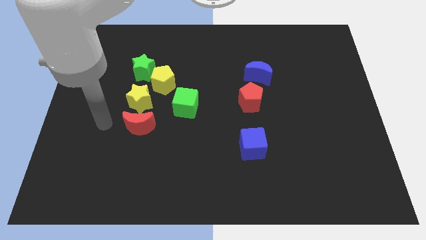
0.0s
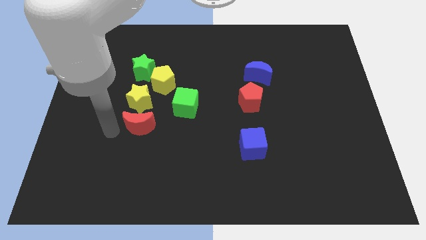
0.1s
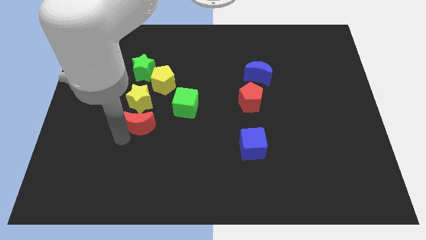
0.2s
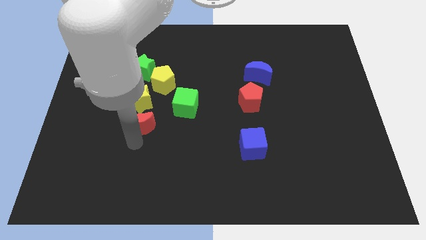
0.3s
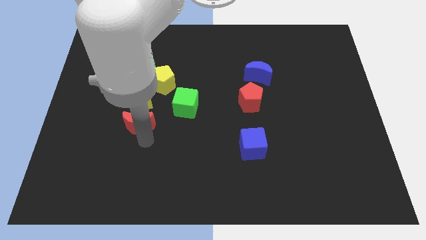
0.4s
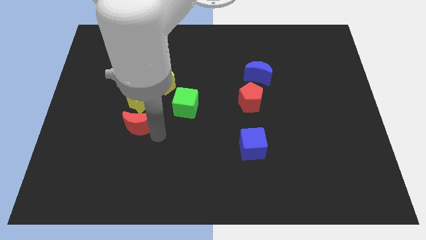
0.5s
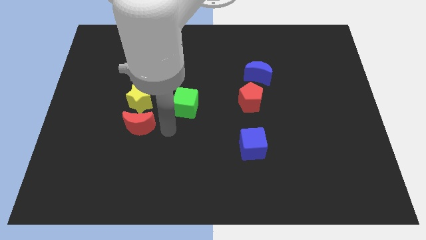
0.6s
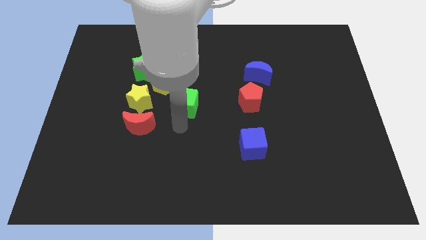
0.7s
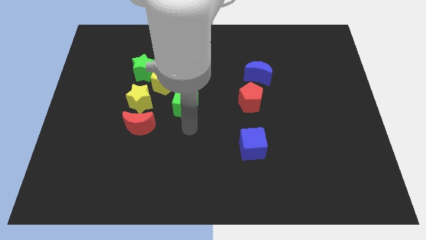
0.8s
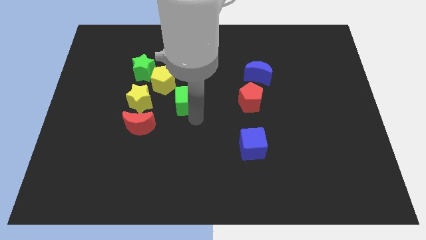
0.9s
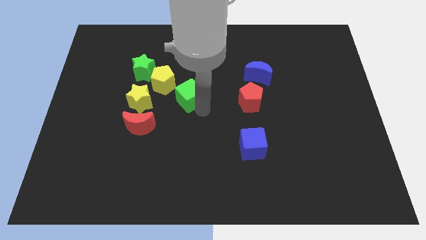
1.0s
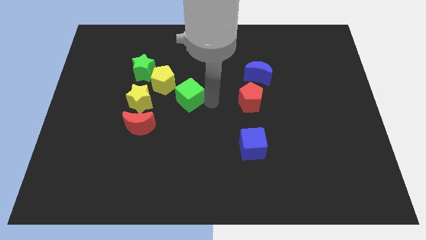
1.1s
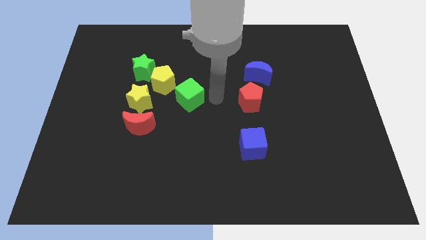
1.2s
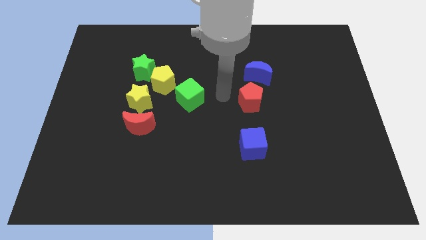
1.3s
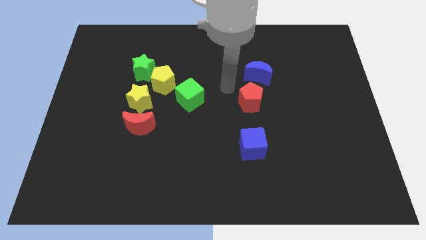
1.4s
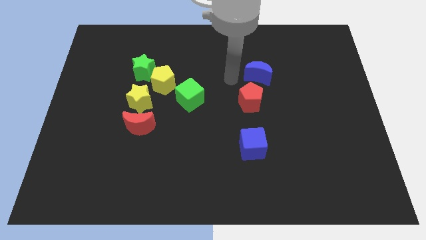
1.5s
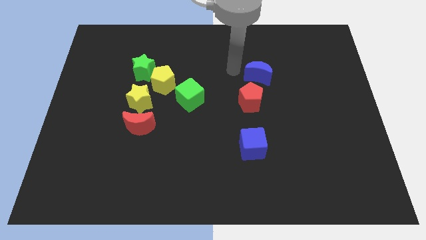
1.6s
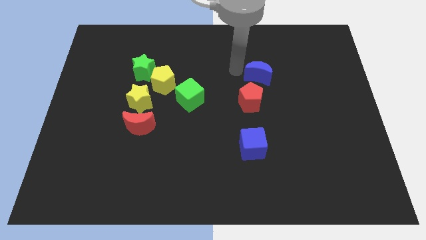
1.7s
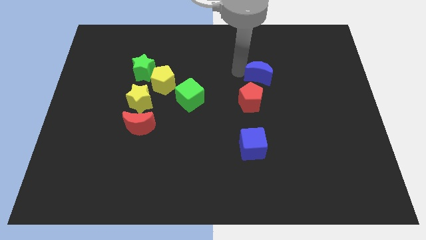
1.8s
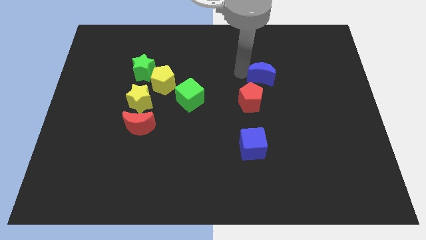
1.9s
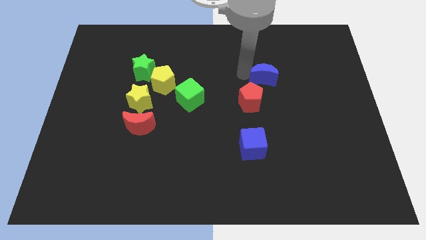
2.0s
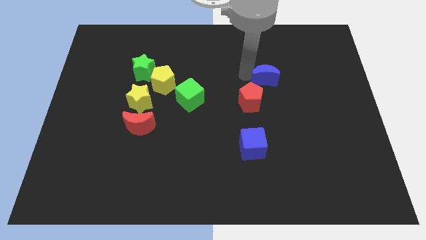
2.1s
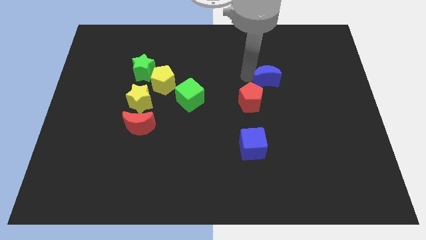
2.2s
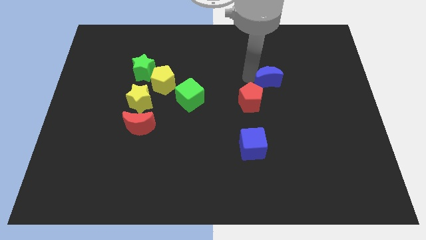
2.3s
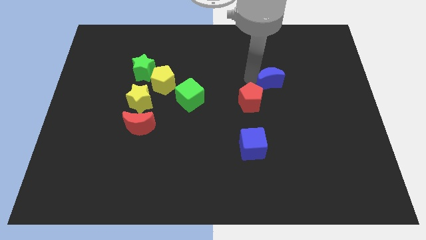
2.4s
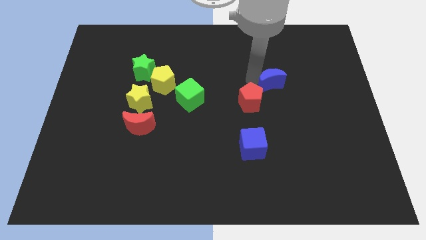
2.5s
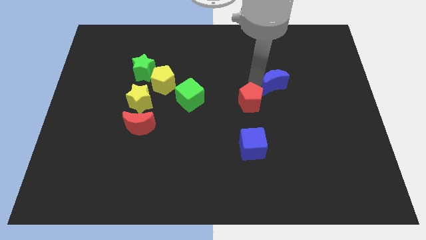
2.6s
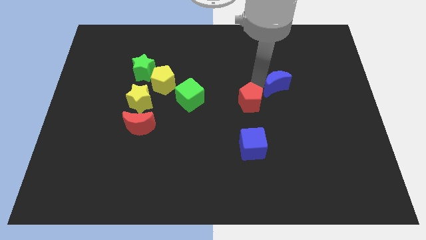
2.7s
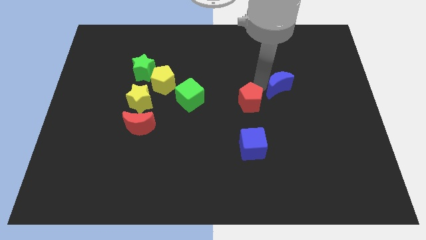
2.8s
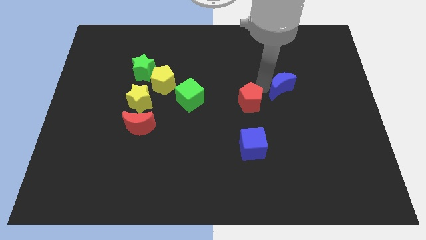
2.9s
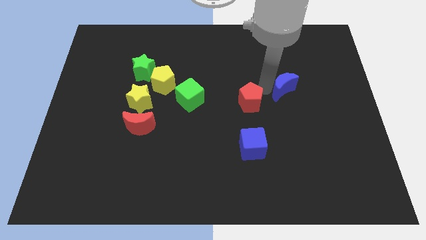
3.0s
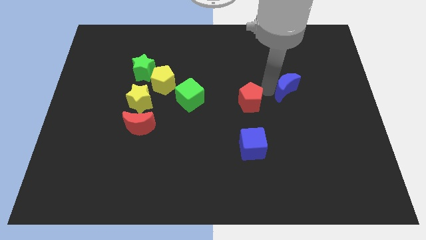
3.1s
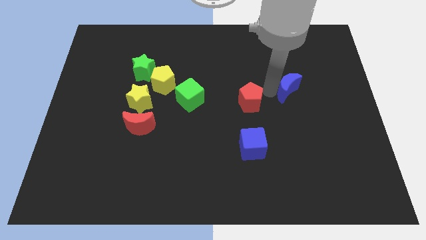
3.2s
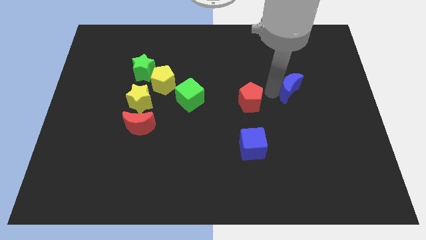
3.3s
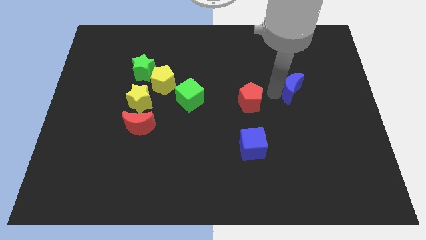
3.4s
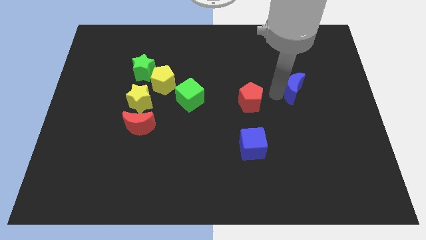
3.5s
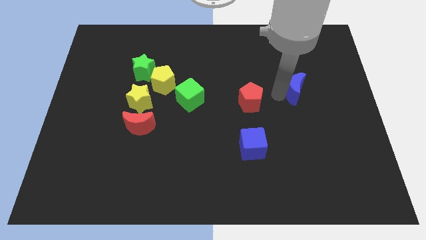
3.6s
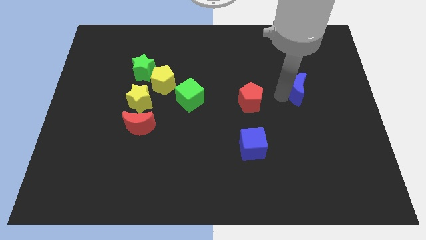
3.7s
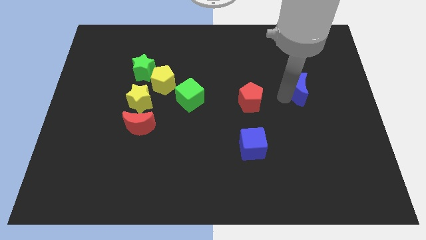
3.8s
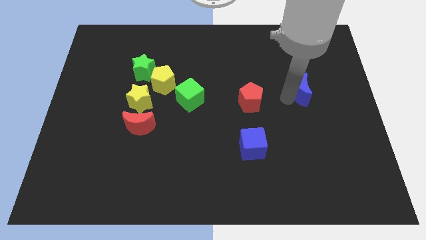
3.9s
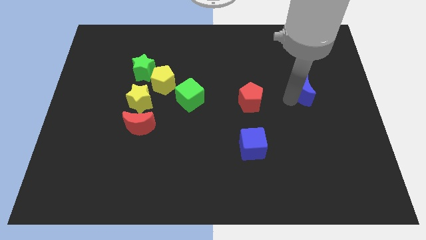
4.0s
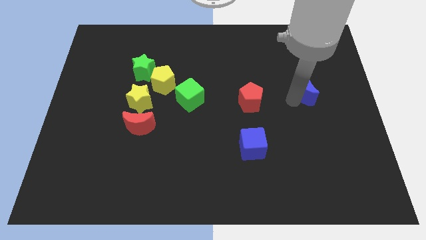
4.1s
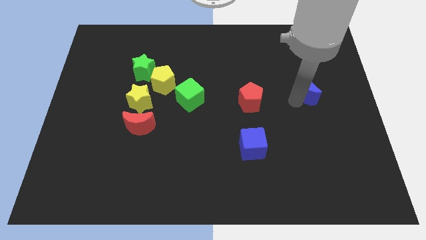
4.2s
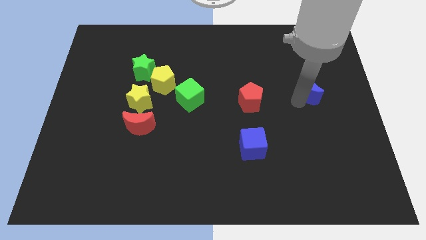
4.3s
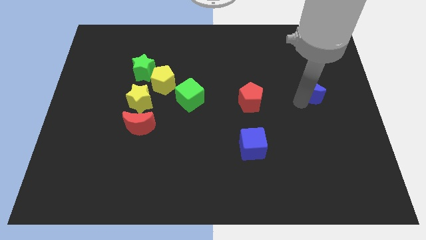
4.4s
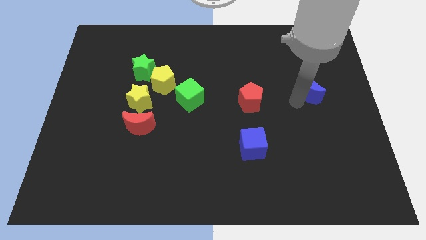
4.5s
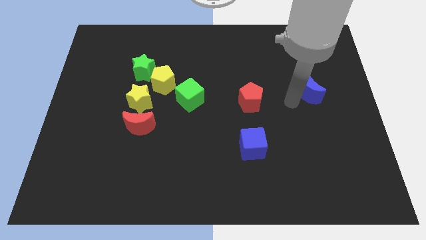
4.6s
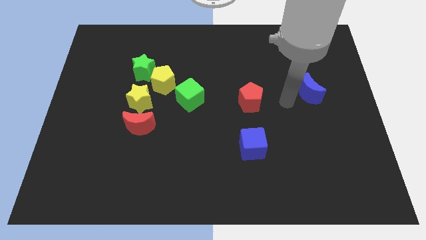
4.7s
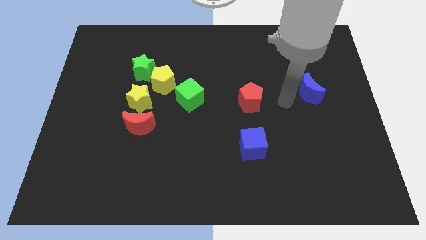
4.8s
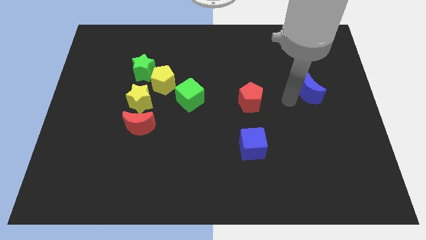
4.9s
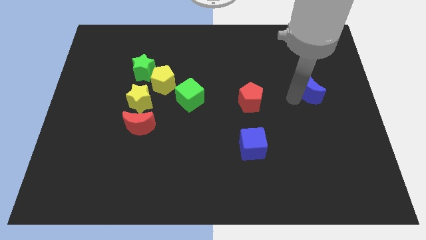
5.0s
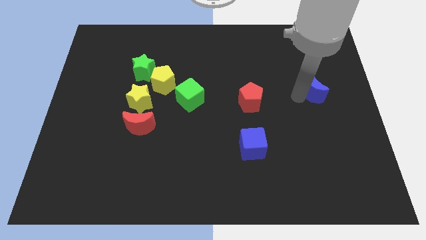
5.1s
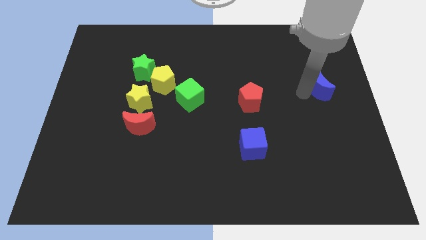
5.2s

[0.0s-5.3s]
push the blue moon to the right side of the board

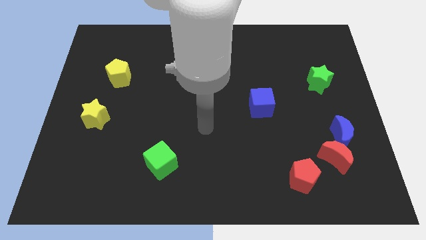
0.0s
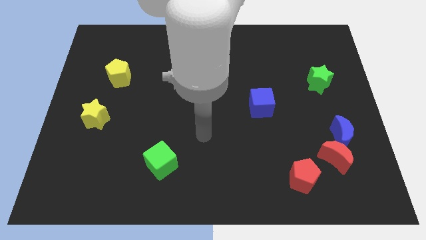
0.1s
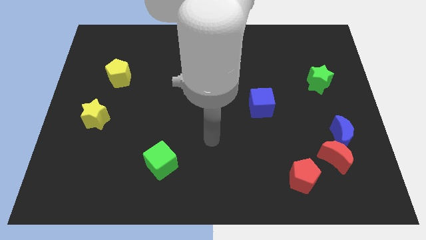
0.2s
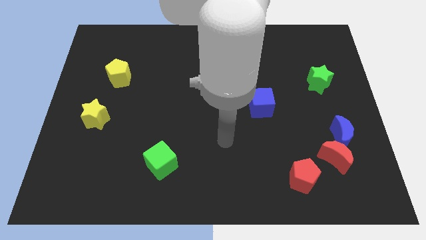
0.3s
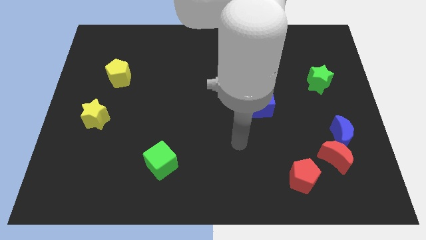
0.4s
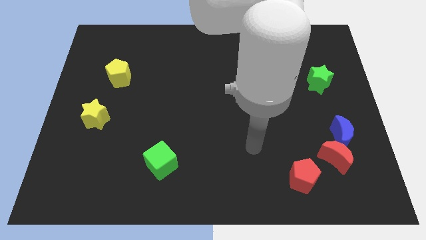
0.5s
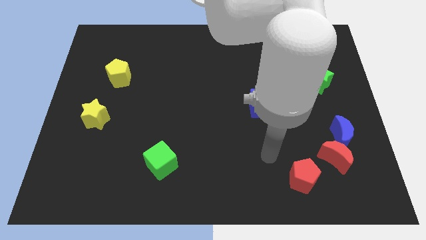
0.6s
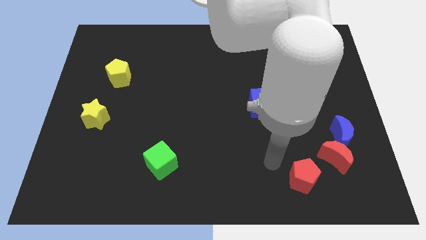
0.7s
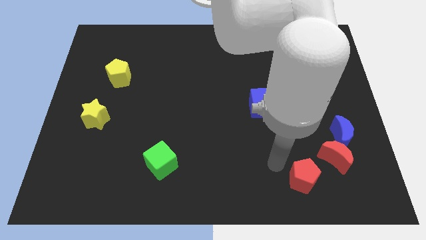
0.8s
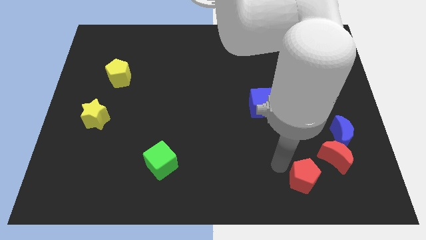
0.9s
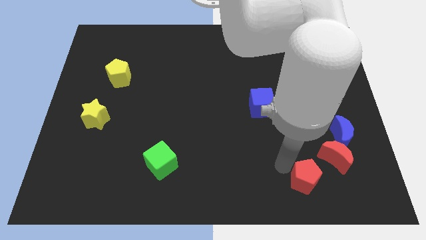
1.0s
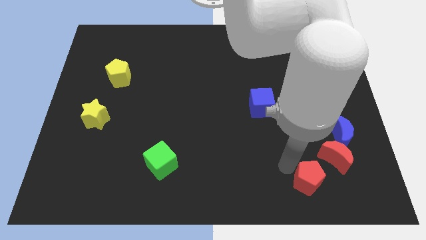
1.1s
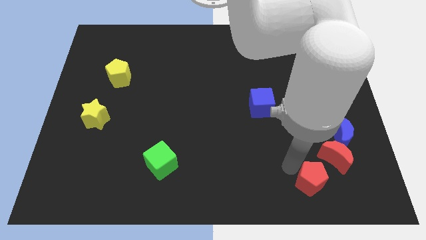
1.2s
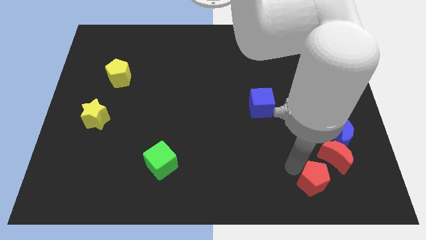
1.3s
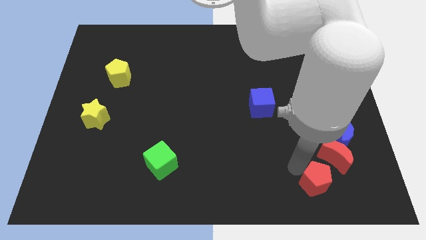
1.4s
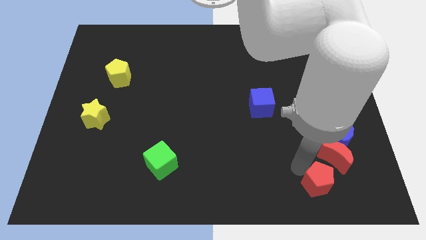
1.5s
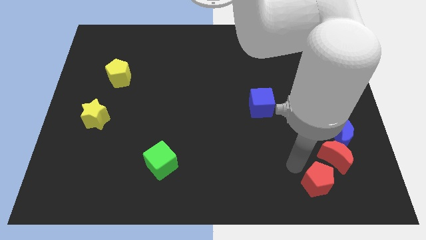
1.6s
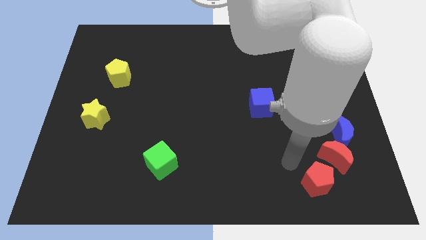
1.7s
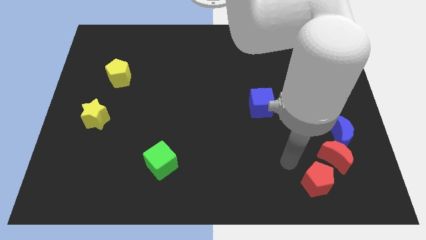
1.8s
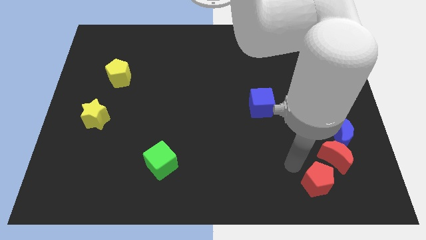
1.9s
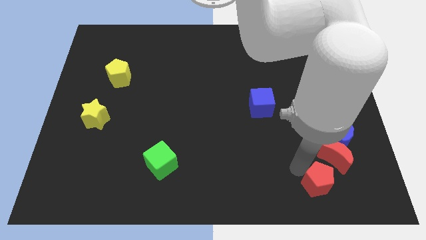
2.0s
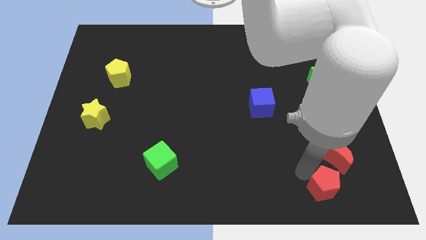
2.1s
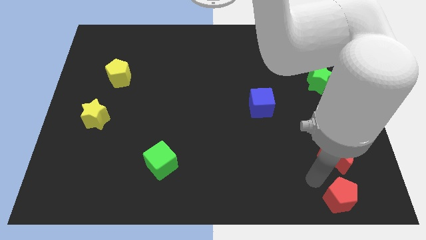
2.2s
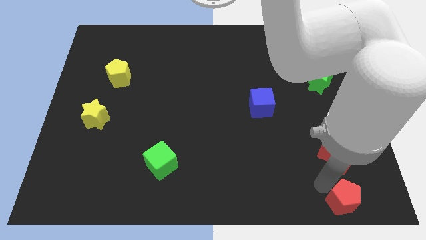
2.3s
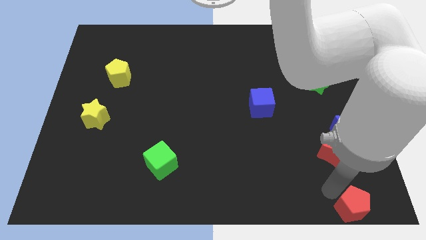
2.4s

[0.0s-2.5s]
move the red pentagon to the bottom right corner
